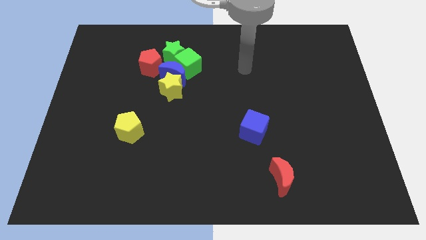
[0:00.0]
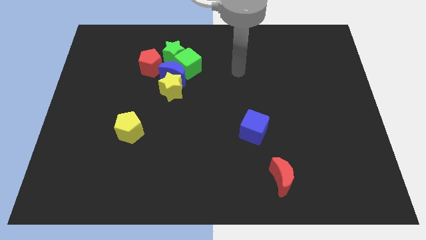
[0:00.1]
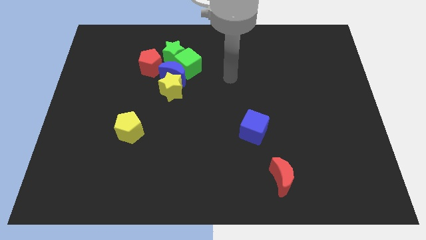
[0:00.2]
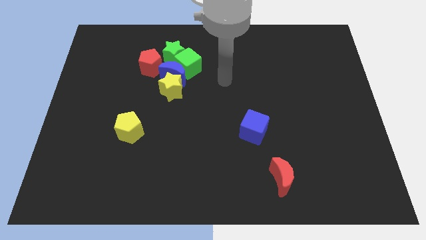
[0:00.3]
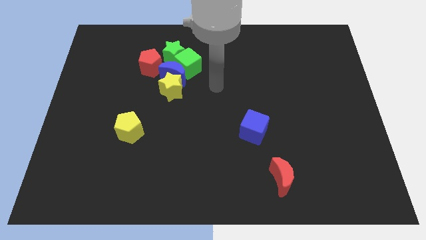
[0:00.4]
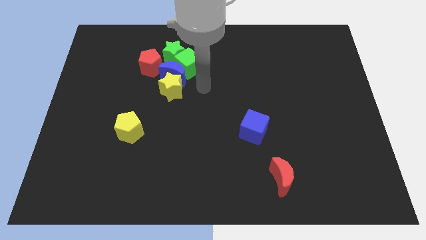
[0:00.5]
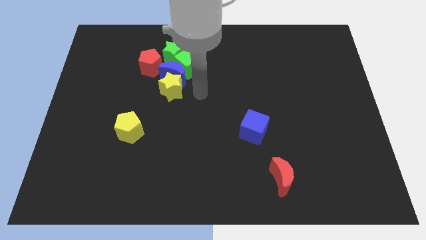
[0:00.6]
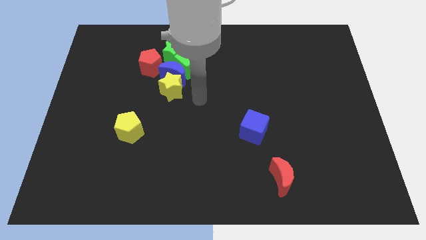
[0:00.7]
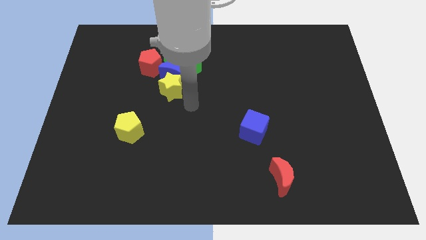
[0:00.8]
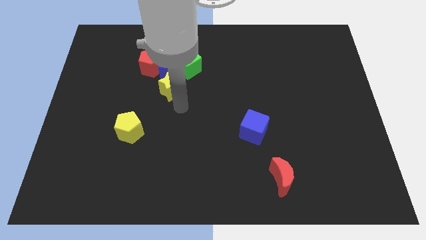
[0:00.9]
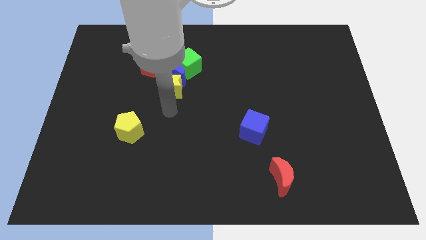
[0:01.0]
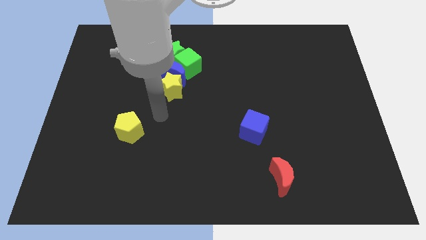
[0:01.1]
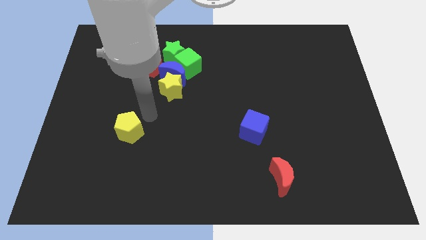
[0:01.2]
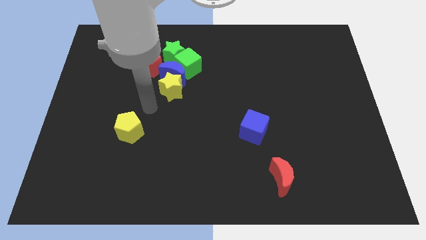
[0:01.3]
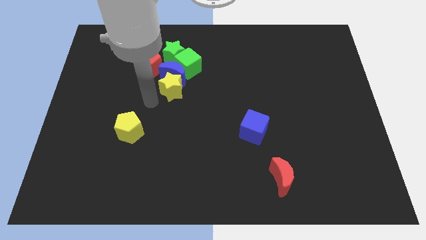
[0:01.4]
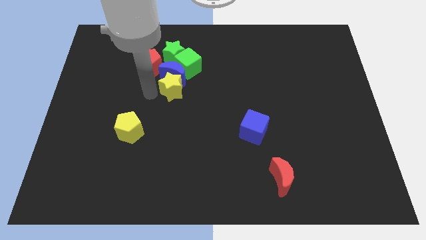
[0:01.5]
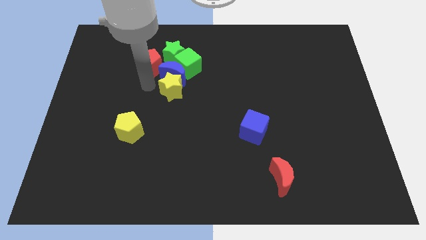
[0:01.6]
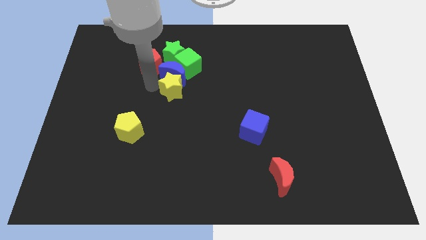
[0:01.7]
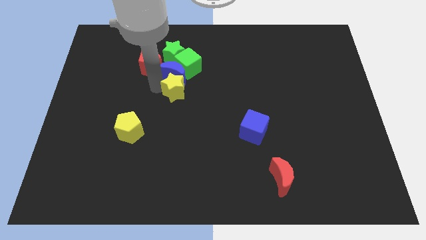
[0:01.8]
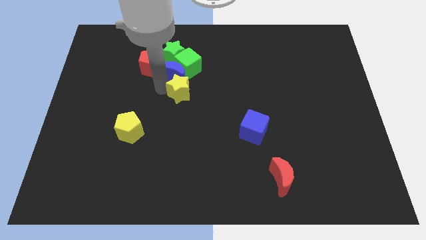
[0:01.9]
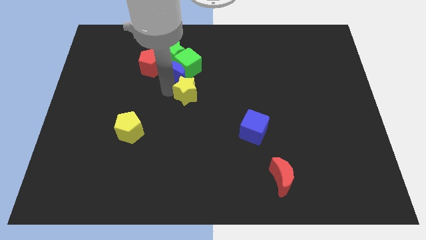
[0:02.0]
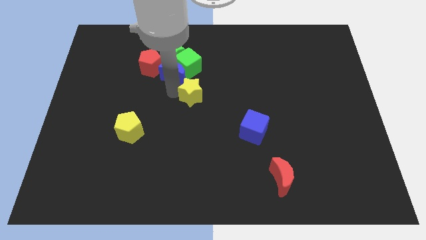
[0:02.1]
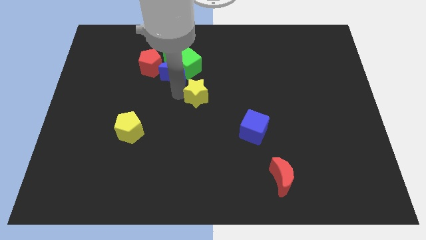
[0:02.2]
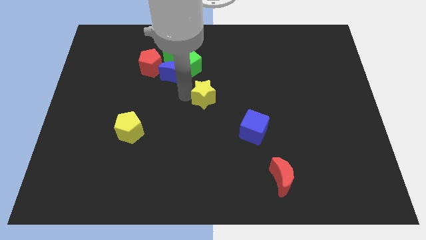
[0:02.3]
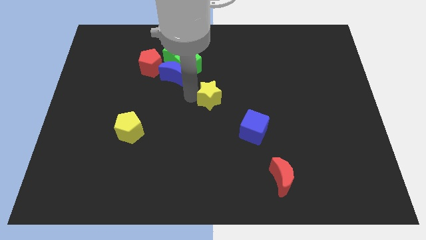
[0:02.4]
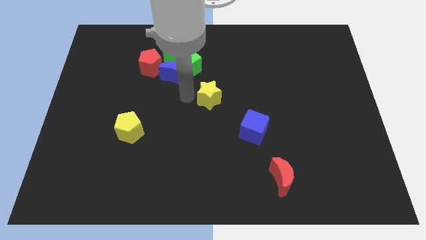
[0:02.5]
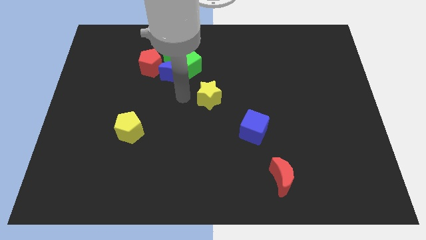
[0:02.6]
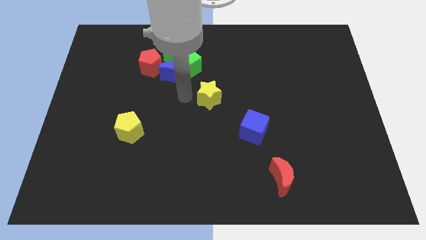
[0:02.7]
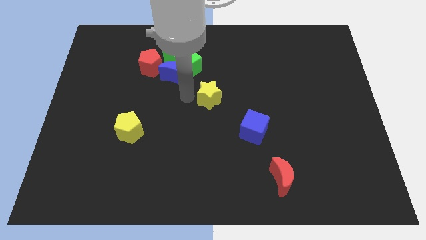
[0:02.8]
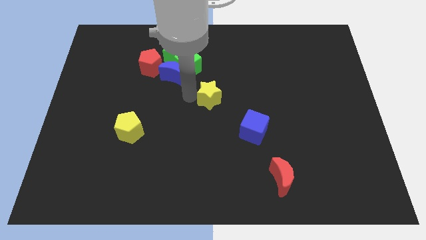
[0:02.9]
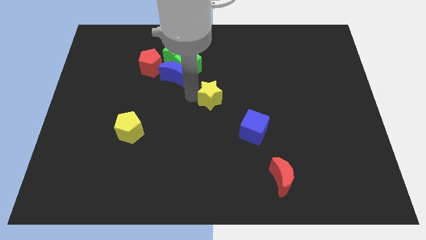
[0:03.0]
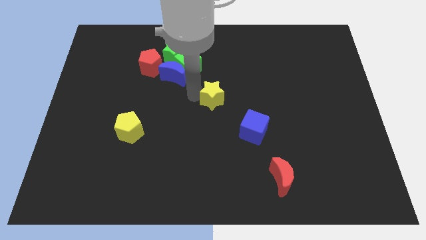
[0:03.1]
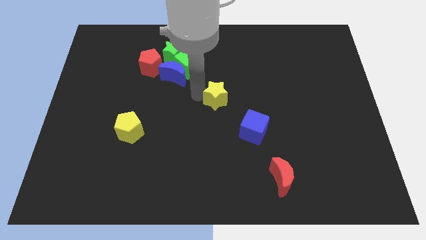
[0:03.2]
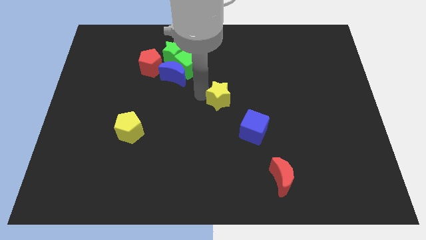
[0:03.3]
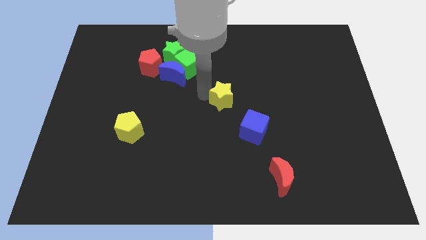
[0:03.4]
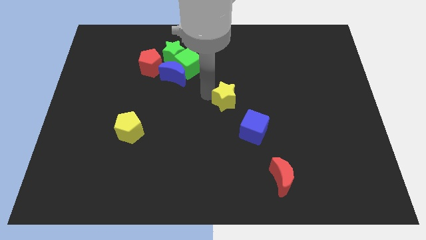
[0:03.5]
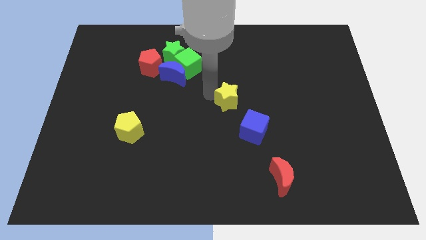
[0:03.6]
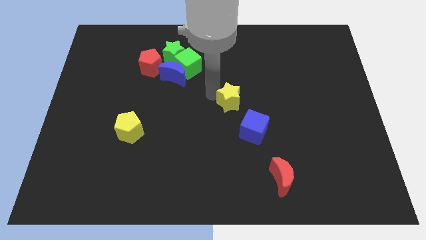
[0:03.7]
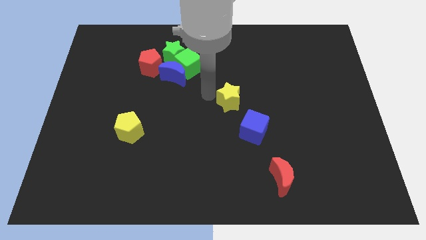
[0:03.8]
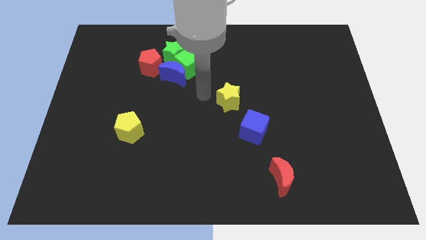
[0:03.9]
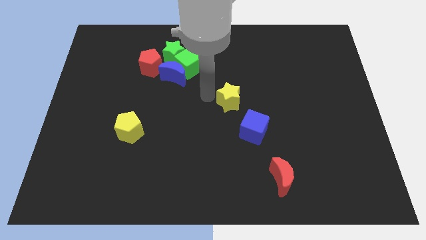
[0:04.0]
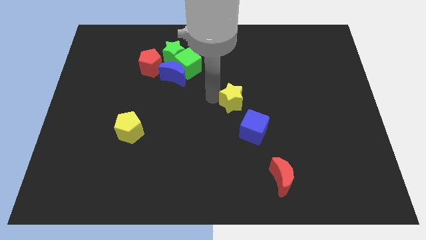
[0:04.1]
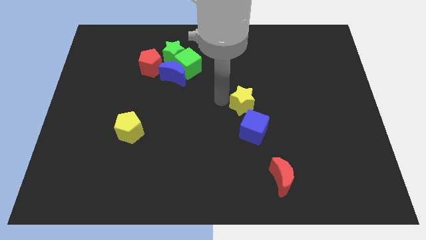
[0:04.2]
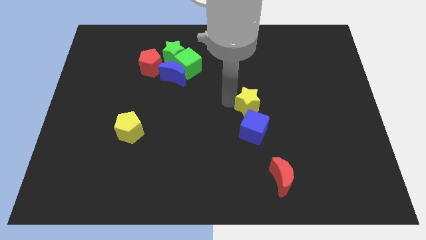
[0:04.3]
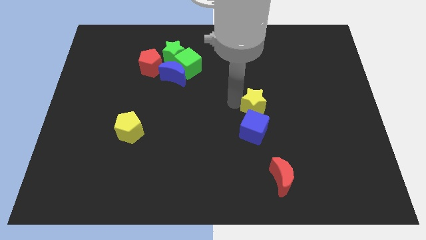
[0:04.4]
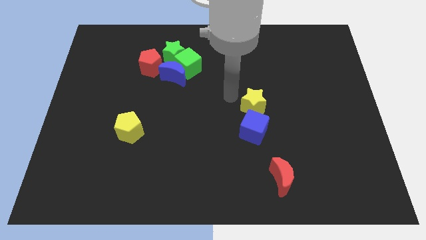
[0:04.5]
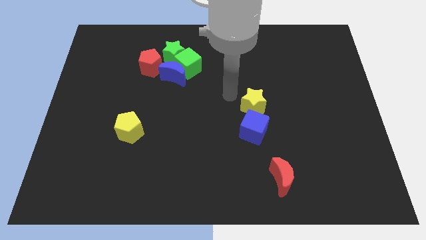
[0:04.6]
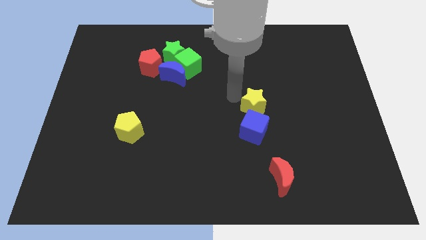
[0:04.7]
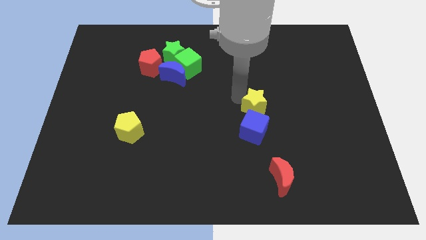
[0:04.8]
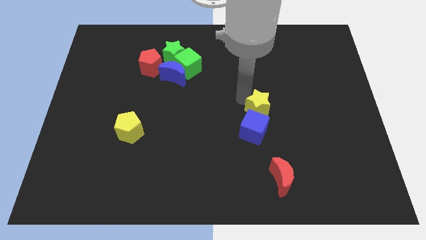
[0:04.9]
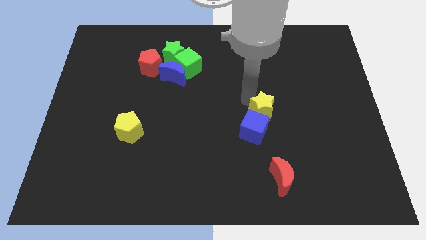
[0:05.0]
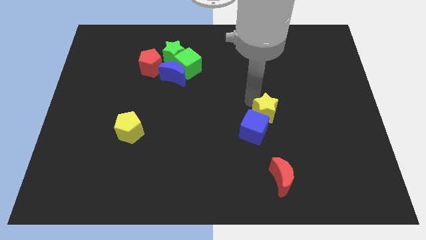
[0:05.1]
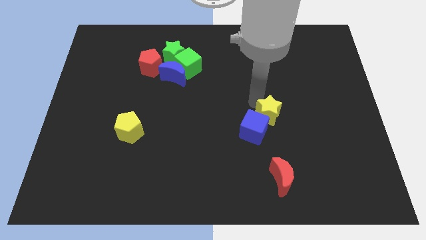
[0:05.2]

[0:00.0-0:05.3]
slide the yellow star to the right of the blue cube

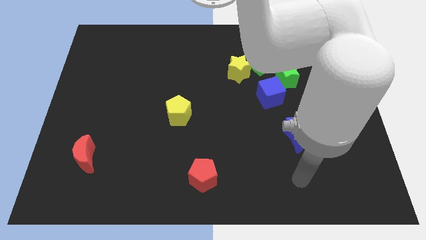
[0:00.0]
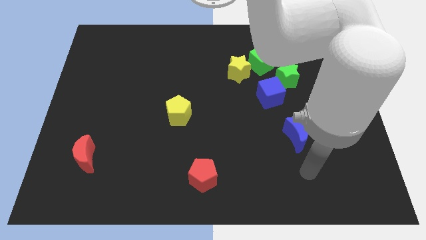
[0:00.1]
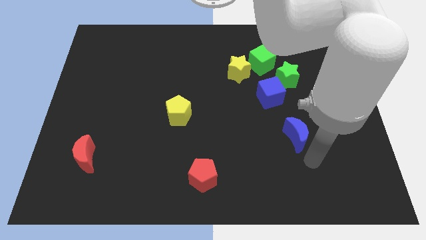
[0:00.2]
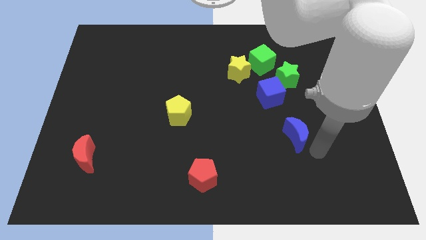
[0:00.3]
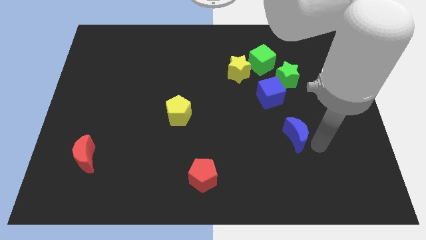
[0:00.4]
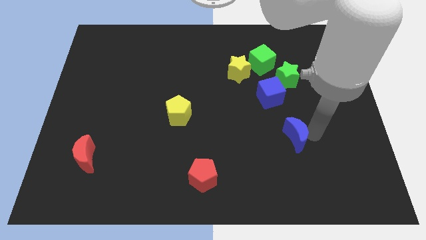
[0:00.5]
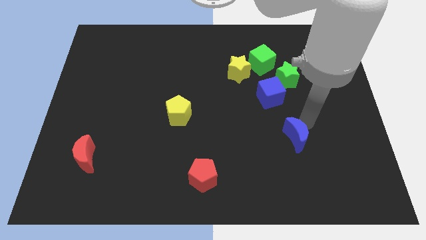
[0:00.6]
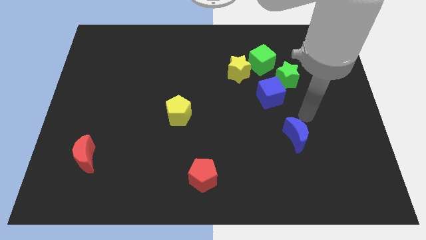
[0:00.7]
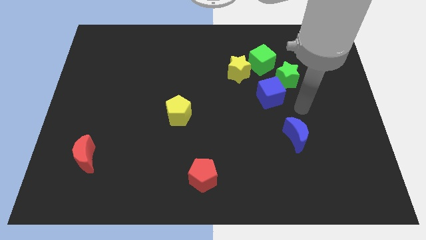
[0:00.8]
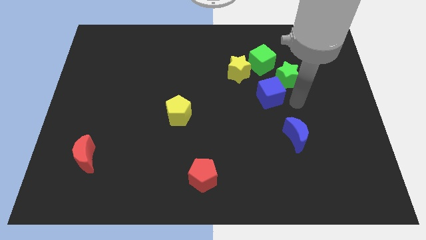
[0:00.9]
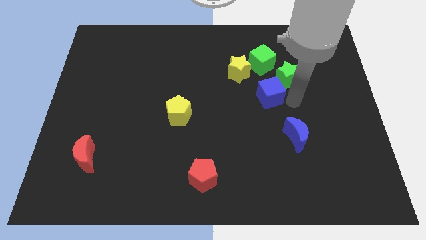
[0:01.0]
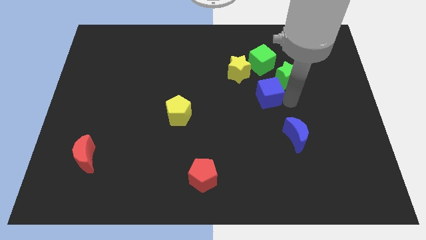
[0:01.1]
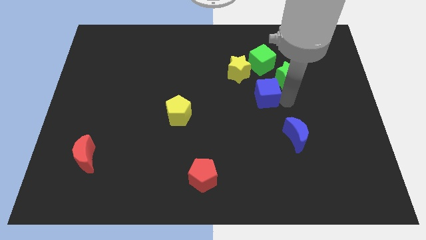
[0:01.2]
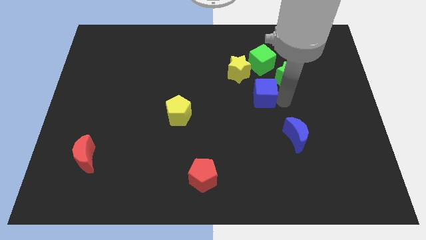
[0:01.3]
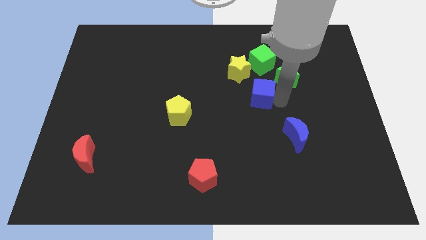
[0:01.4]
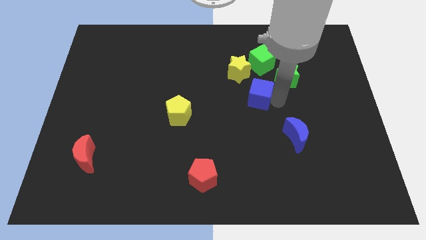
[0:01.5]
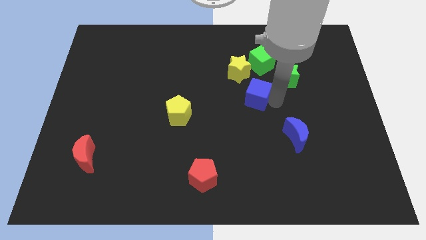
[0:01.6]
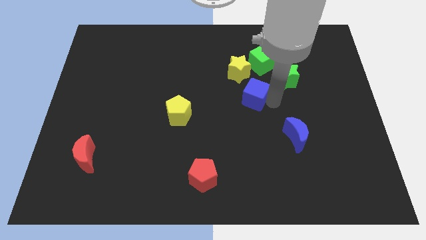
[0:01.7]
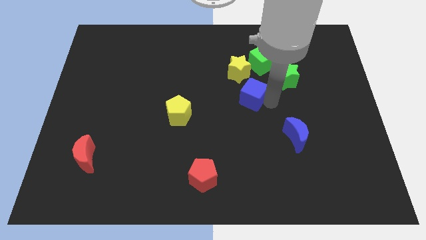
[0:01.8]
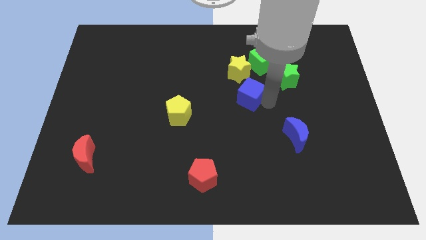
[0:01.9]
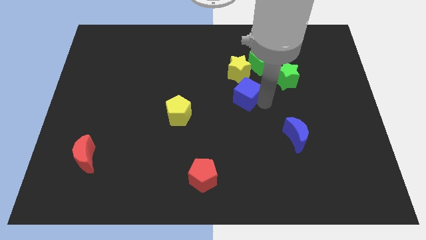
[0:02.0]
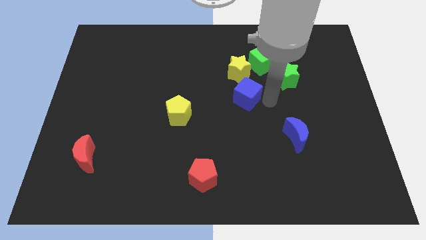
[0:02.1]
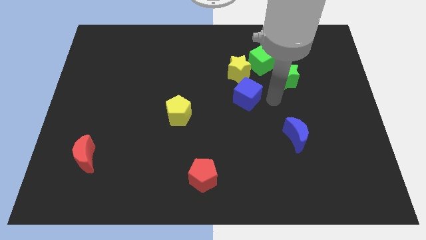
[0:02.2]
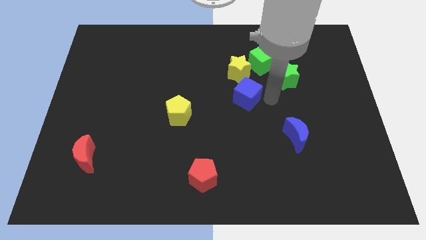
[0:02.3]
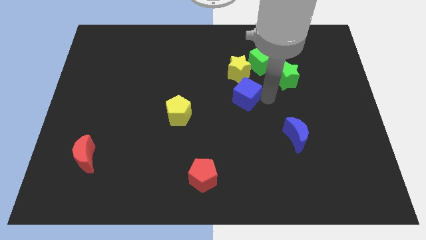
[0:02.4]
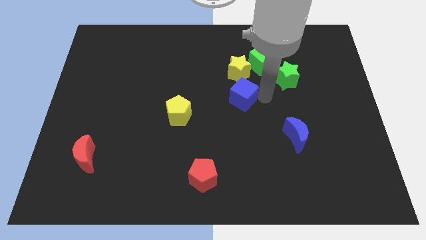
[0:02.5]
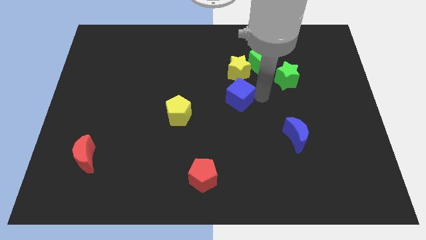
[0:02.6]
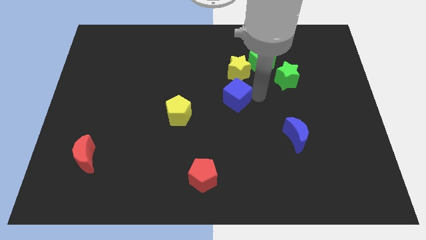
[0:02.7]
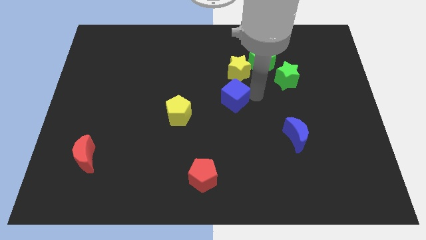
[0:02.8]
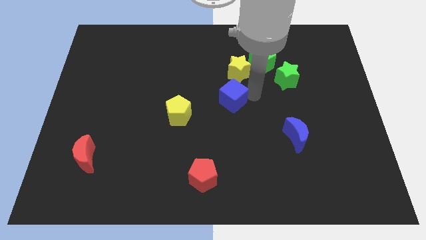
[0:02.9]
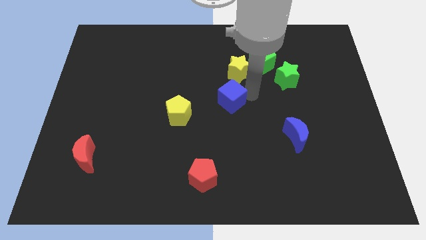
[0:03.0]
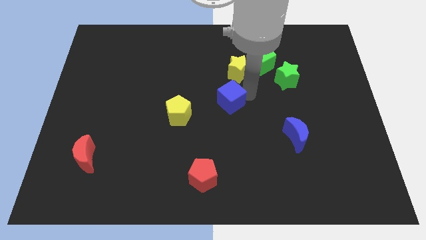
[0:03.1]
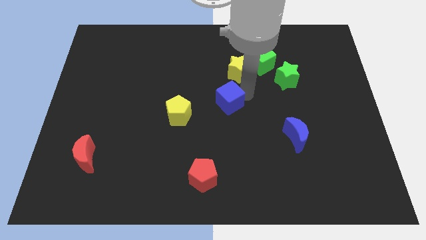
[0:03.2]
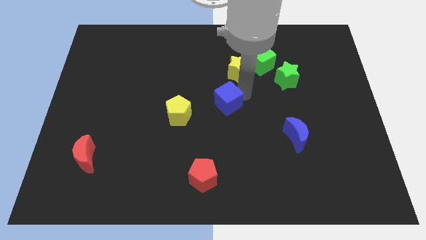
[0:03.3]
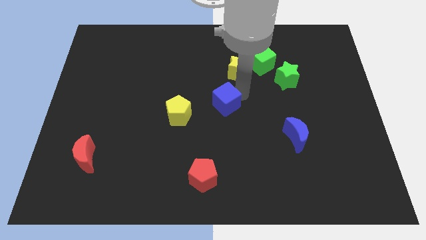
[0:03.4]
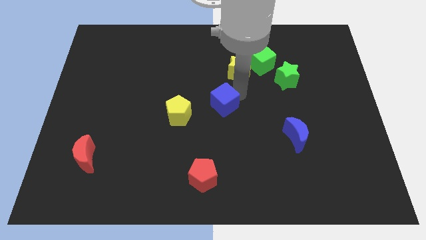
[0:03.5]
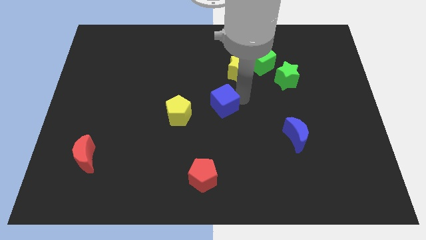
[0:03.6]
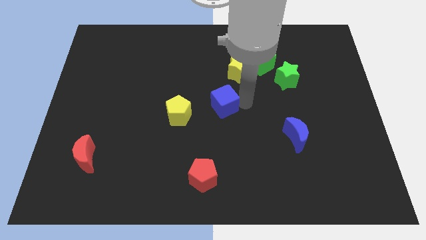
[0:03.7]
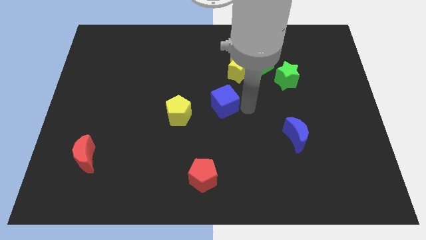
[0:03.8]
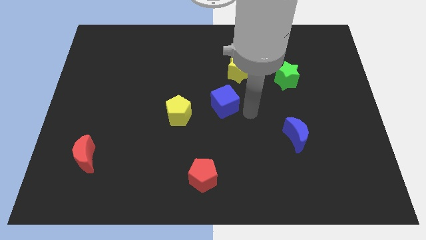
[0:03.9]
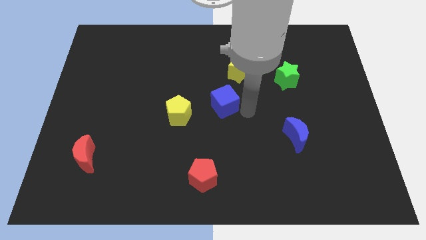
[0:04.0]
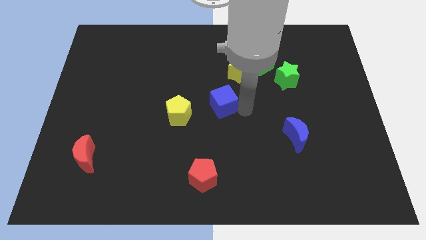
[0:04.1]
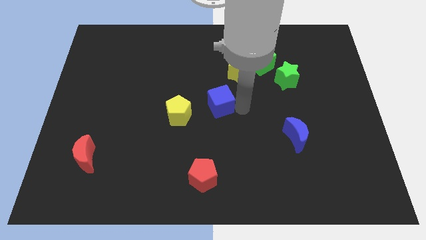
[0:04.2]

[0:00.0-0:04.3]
move the blue cube diagonally up and to the right of the yellow pentagon
